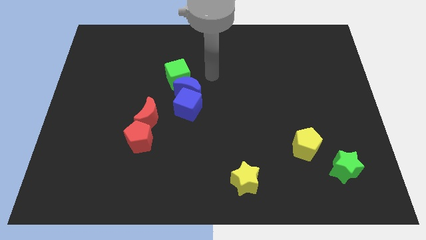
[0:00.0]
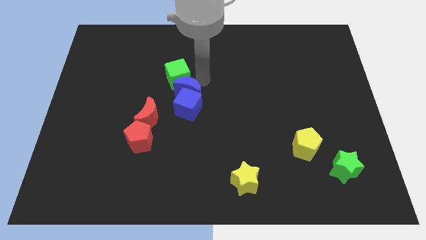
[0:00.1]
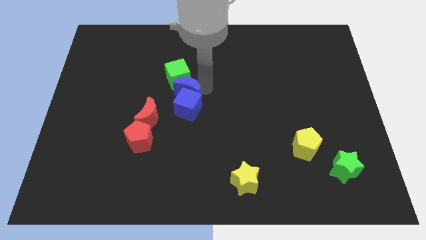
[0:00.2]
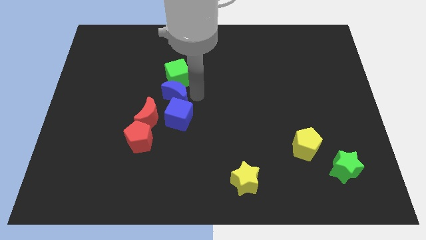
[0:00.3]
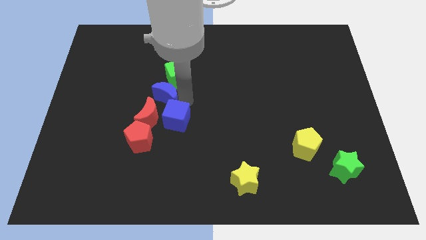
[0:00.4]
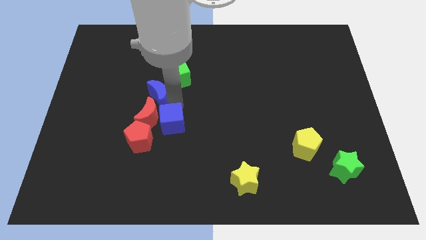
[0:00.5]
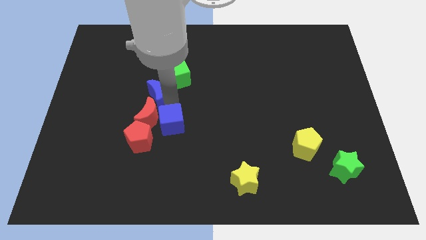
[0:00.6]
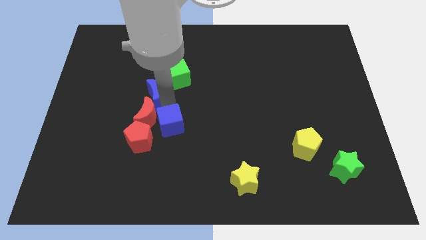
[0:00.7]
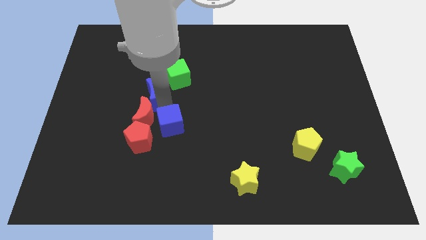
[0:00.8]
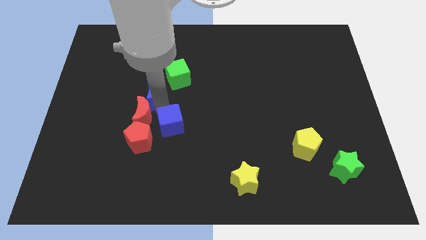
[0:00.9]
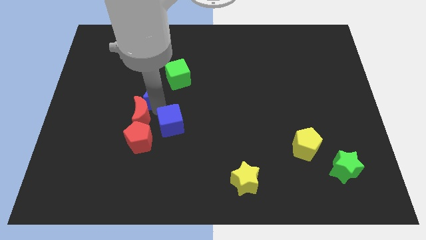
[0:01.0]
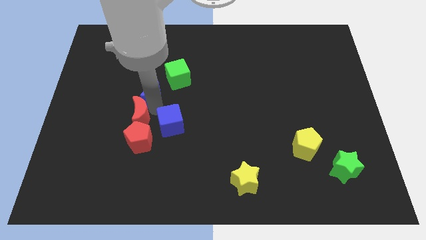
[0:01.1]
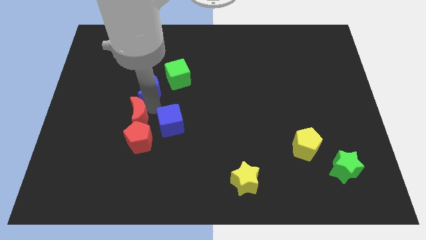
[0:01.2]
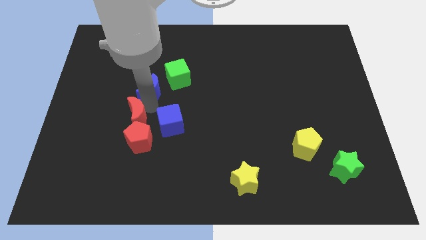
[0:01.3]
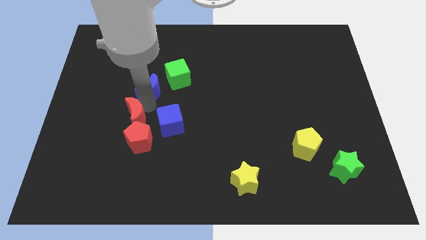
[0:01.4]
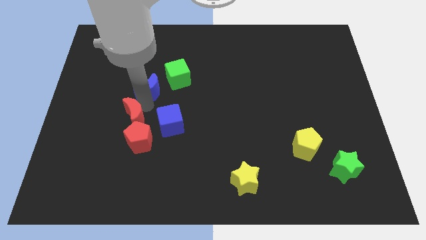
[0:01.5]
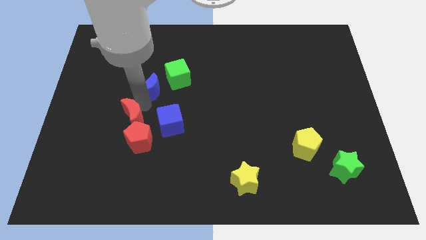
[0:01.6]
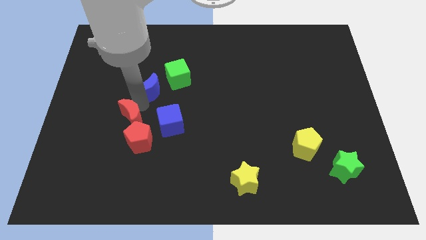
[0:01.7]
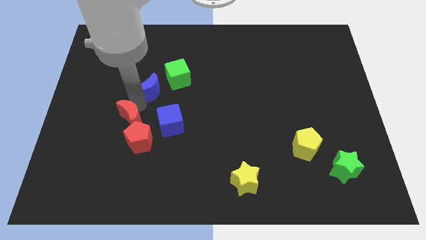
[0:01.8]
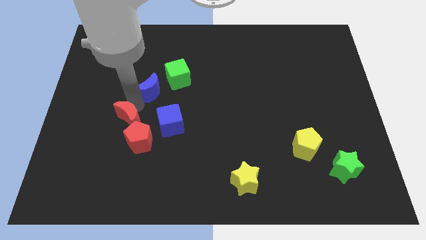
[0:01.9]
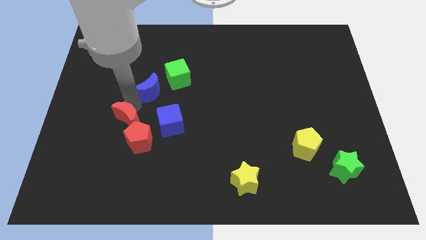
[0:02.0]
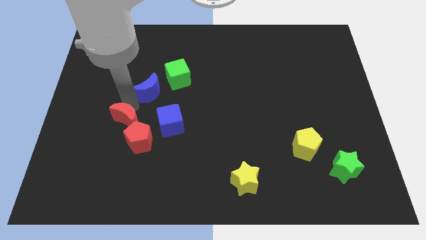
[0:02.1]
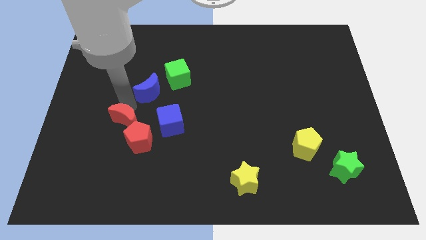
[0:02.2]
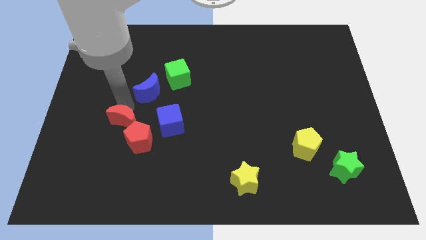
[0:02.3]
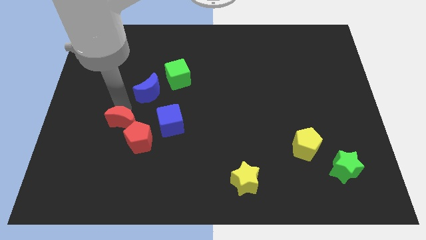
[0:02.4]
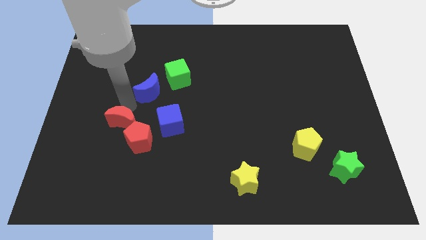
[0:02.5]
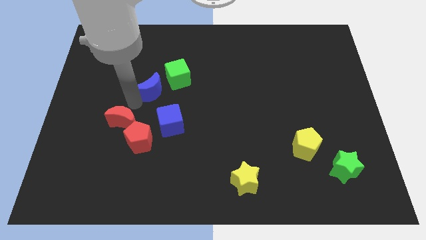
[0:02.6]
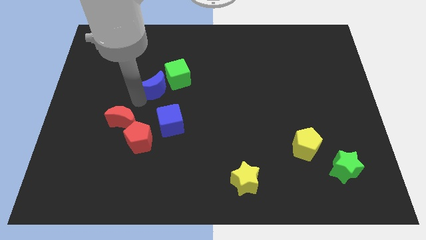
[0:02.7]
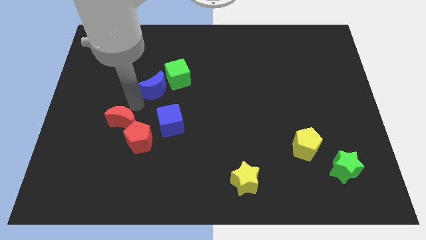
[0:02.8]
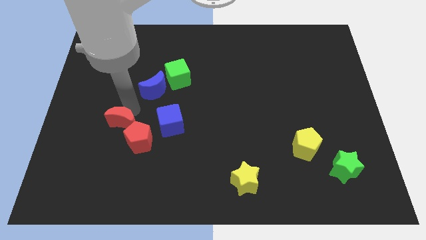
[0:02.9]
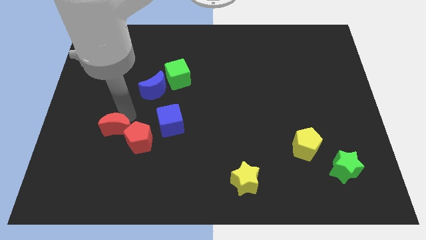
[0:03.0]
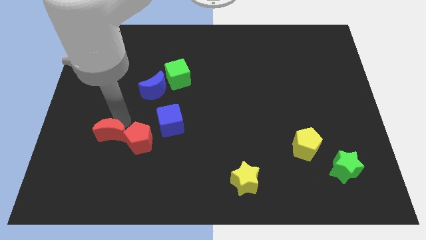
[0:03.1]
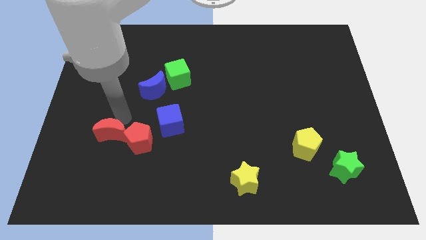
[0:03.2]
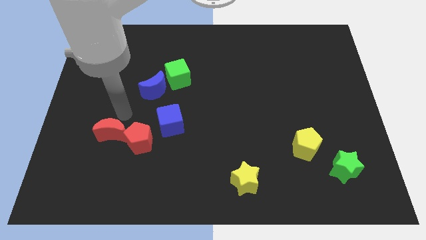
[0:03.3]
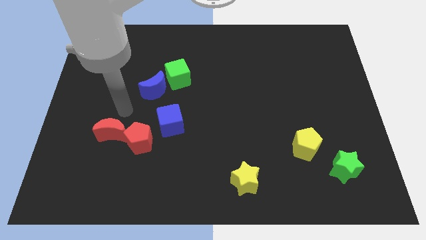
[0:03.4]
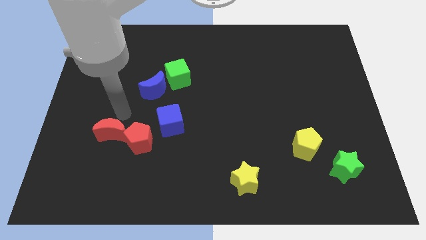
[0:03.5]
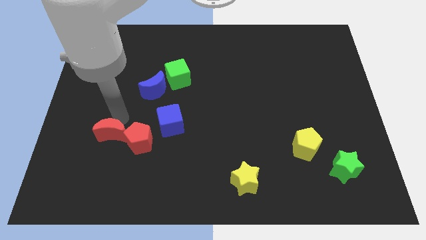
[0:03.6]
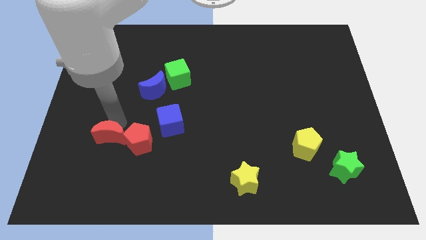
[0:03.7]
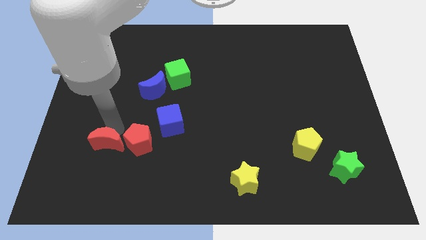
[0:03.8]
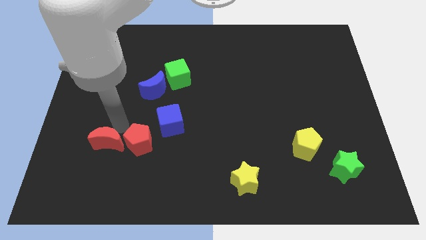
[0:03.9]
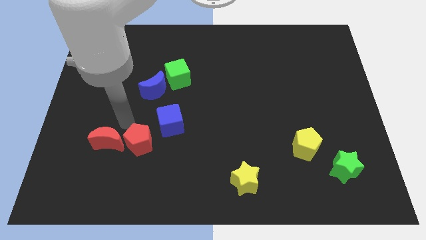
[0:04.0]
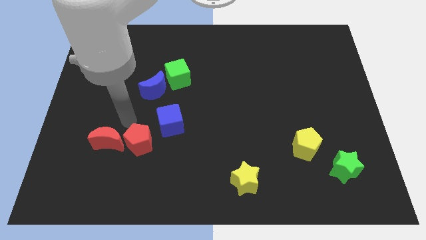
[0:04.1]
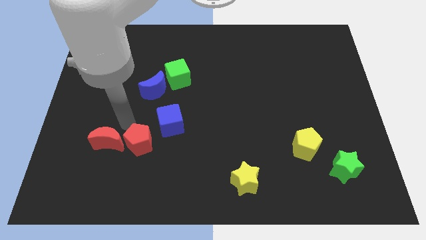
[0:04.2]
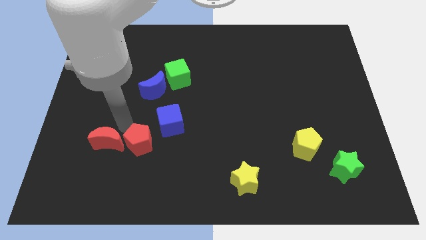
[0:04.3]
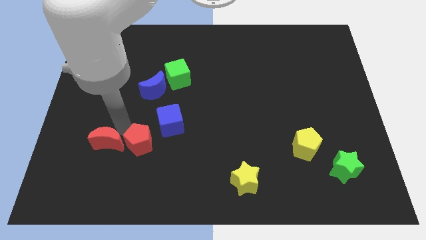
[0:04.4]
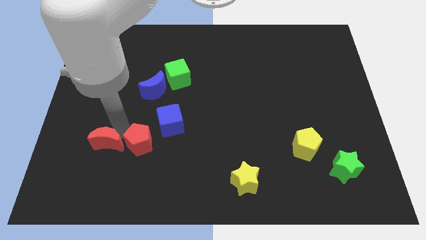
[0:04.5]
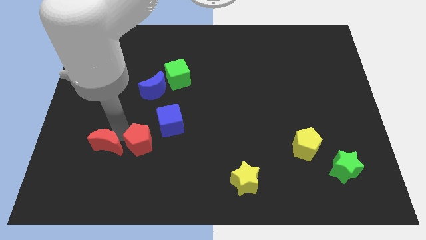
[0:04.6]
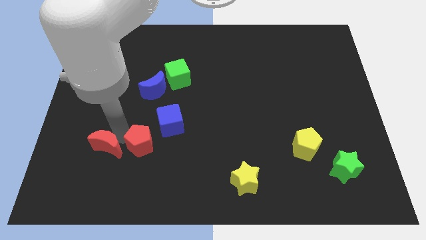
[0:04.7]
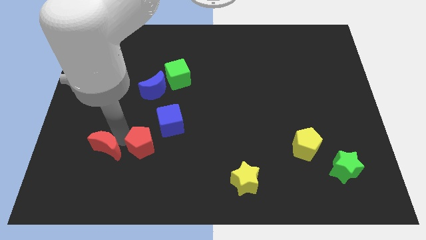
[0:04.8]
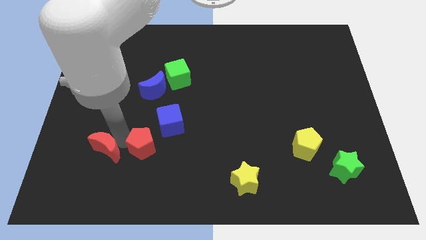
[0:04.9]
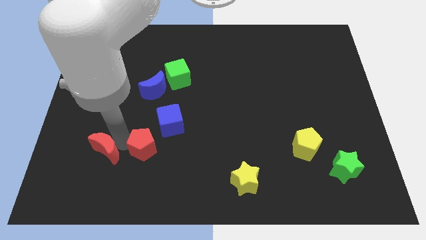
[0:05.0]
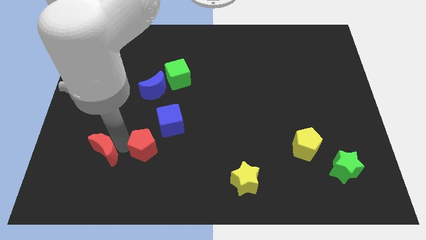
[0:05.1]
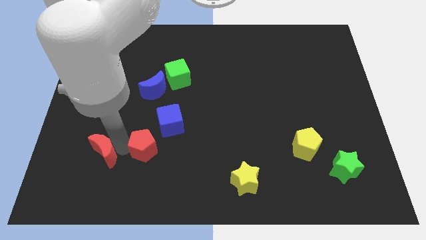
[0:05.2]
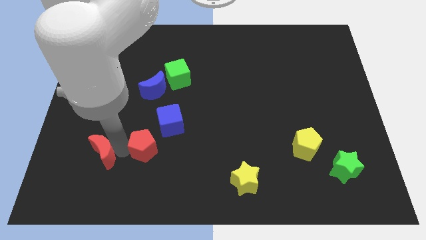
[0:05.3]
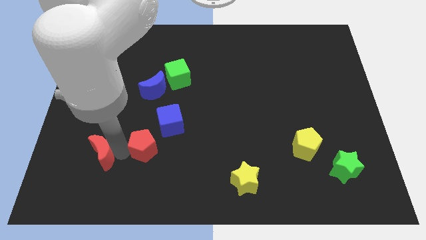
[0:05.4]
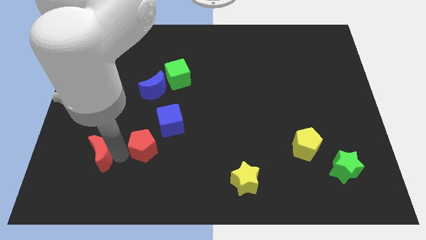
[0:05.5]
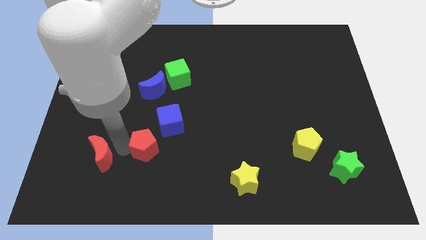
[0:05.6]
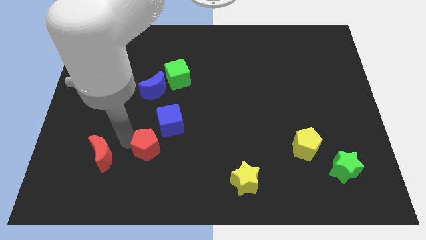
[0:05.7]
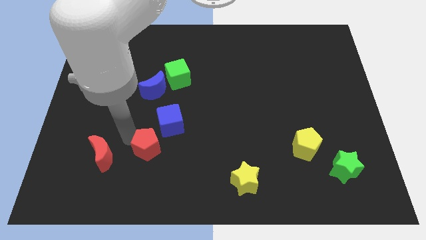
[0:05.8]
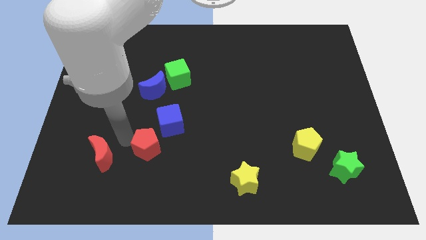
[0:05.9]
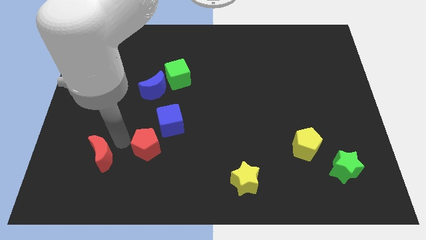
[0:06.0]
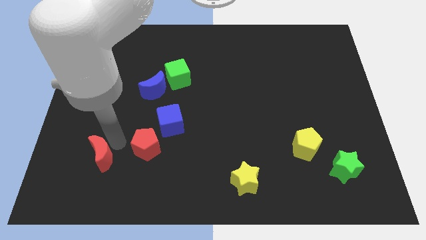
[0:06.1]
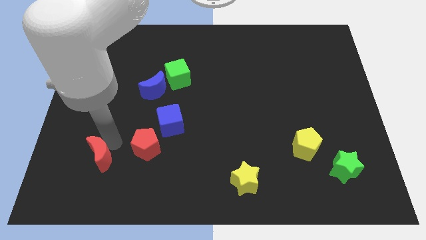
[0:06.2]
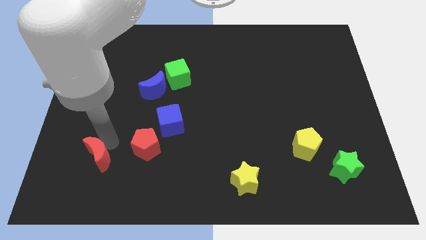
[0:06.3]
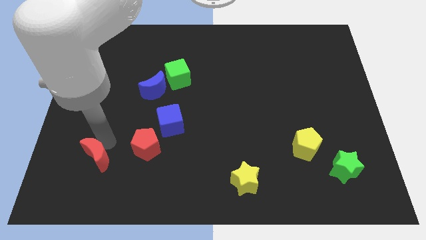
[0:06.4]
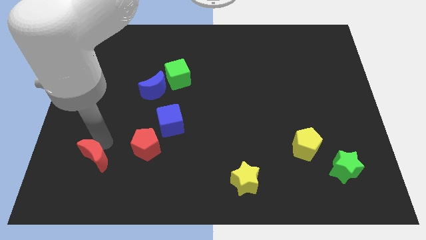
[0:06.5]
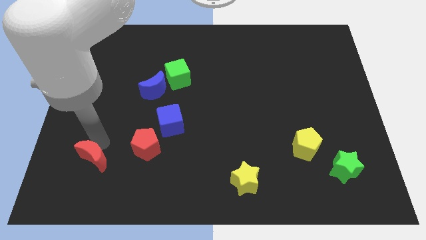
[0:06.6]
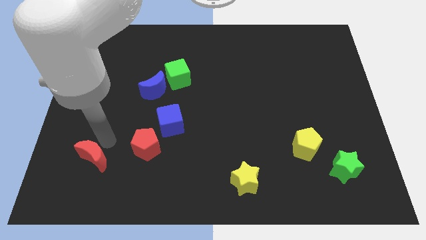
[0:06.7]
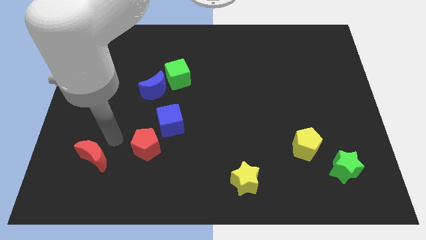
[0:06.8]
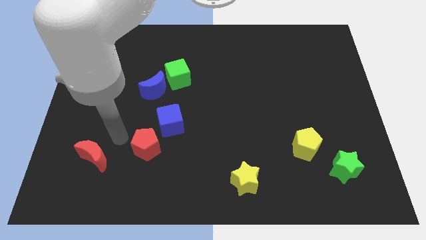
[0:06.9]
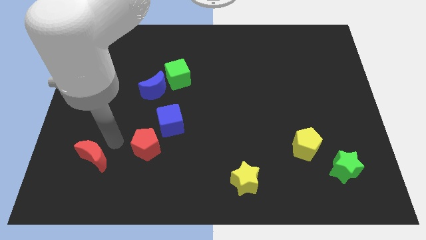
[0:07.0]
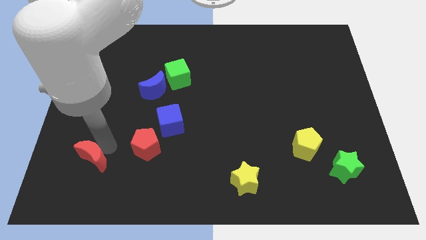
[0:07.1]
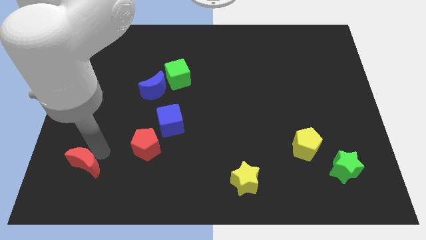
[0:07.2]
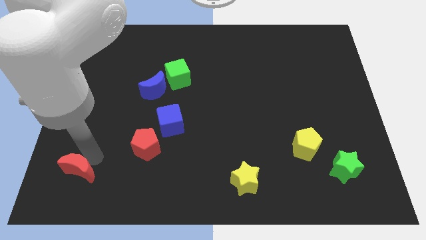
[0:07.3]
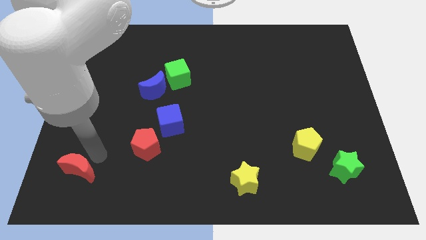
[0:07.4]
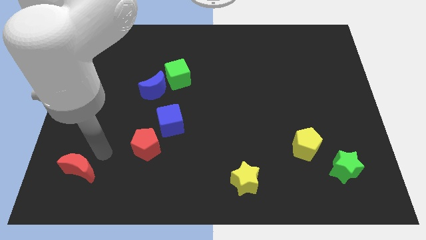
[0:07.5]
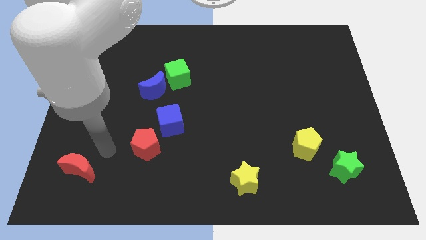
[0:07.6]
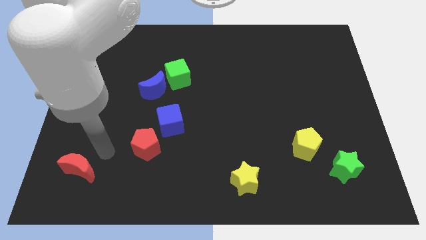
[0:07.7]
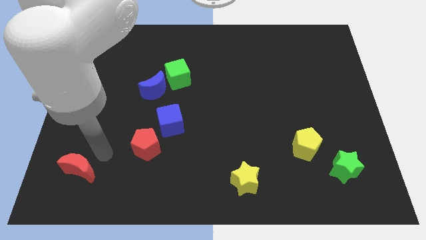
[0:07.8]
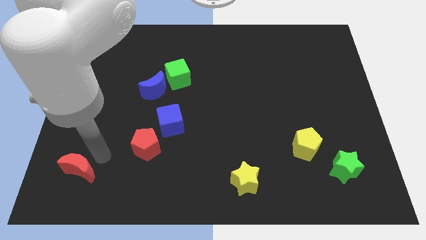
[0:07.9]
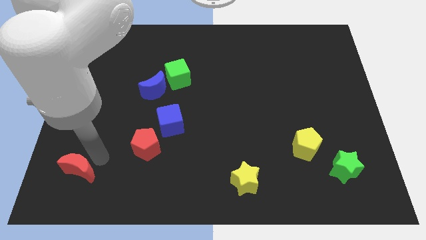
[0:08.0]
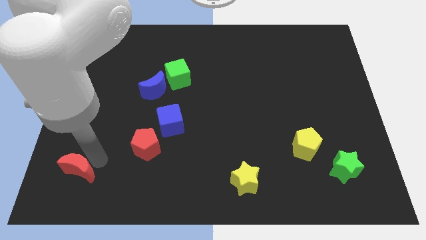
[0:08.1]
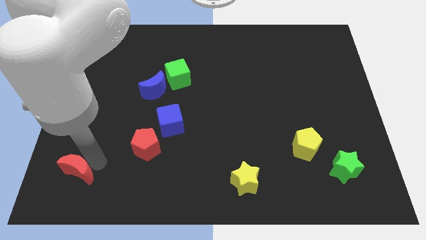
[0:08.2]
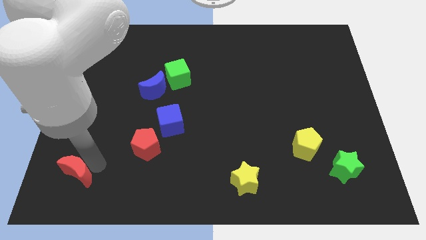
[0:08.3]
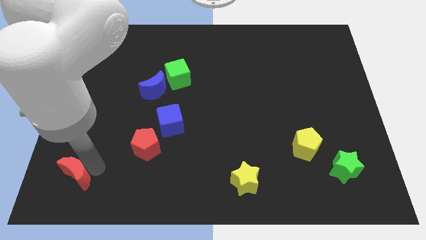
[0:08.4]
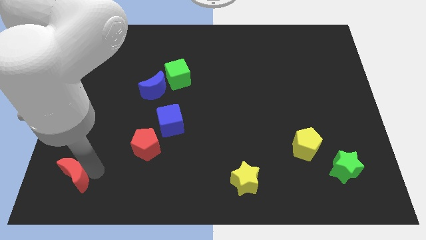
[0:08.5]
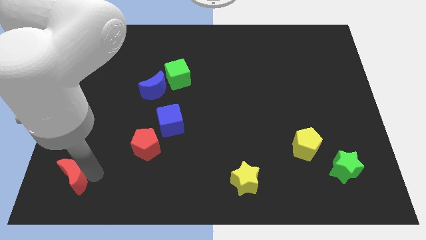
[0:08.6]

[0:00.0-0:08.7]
move the red moon to the bottom left
